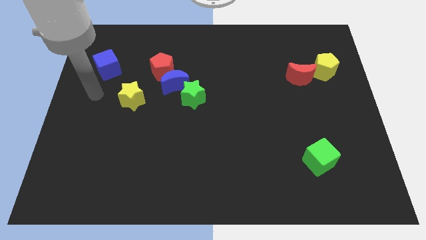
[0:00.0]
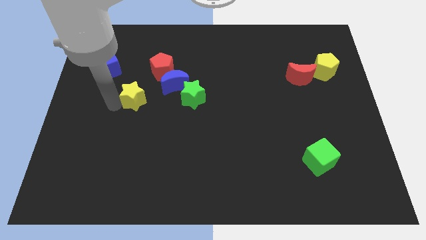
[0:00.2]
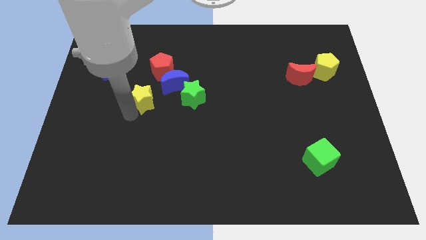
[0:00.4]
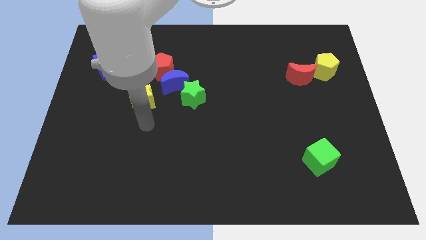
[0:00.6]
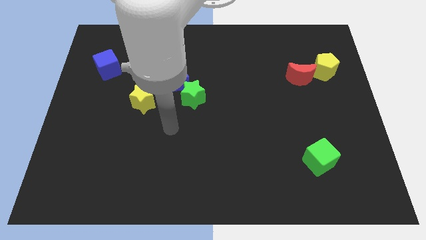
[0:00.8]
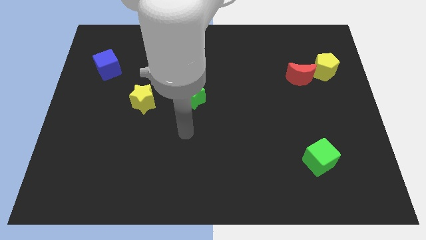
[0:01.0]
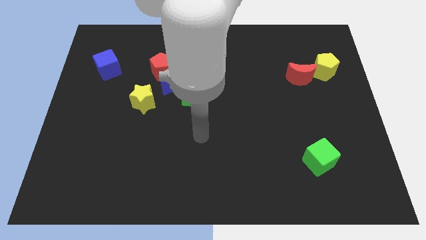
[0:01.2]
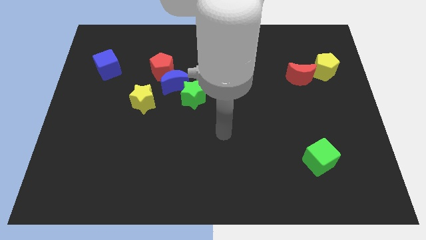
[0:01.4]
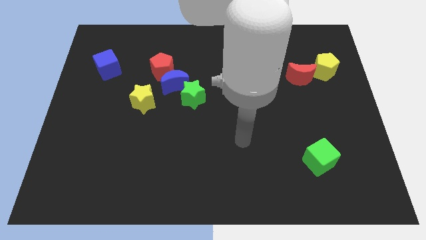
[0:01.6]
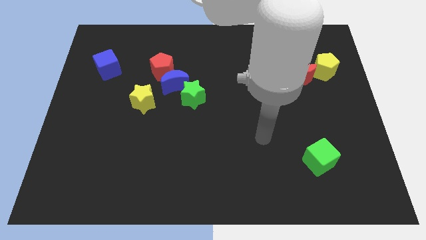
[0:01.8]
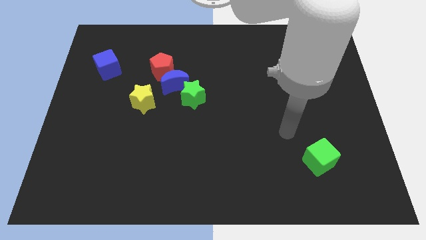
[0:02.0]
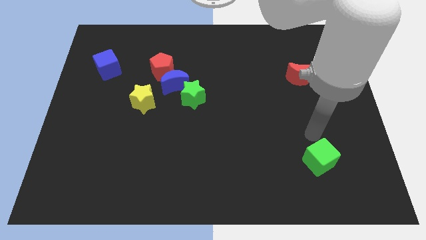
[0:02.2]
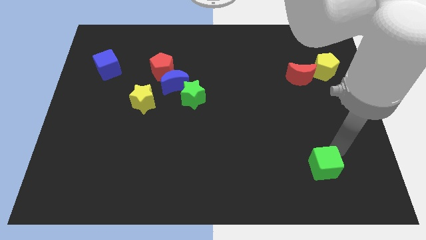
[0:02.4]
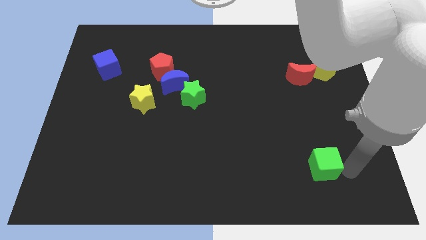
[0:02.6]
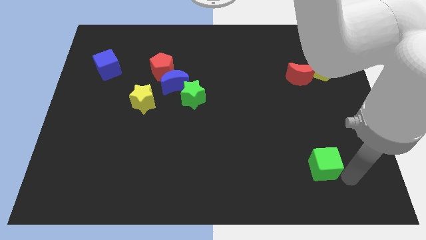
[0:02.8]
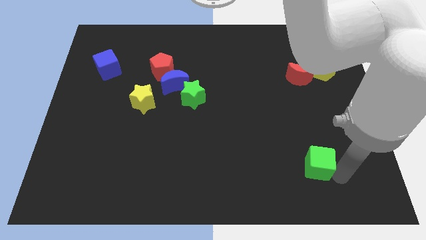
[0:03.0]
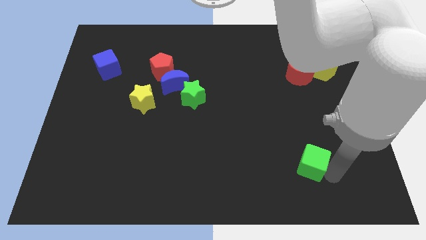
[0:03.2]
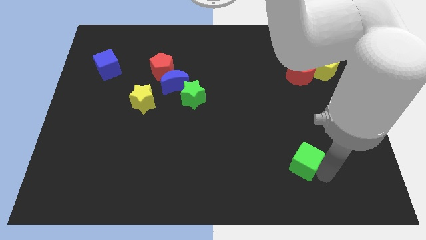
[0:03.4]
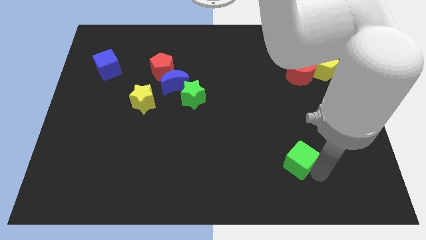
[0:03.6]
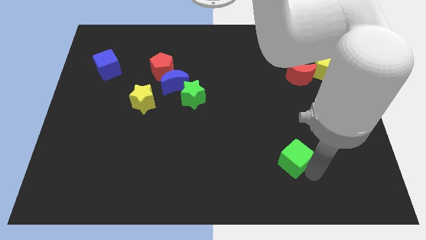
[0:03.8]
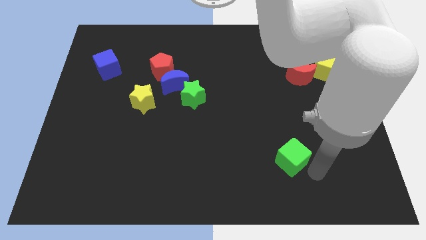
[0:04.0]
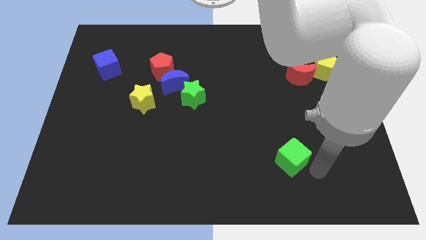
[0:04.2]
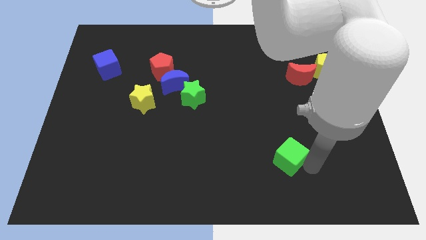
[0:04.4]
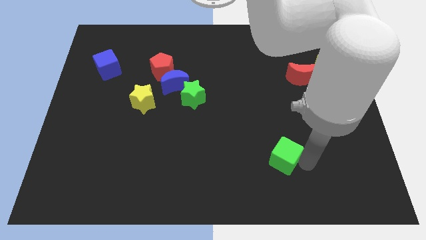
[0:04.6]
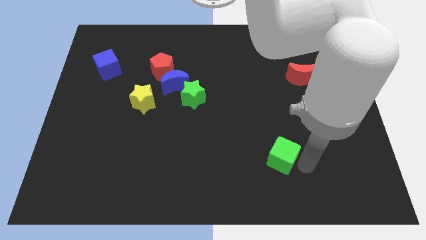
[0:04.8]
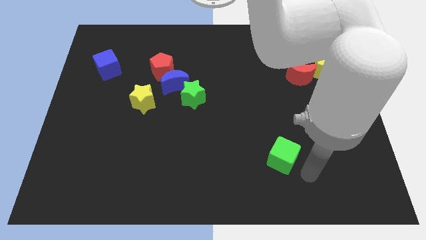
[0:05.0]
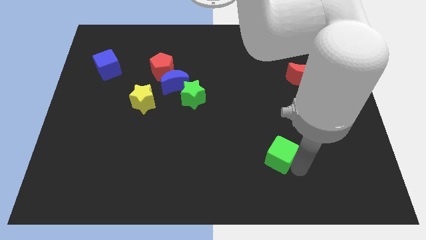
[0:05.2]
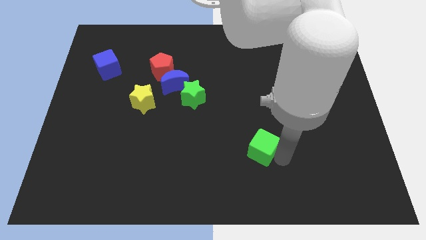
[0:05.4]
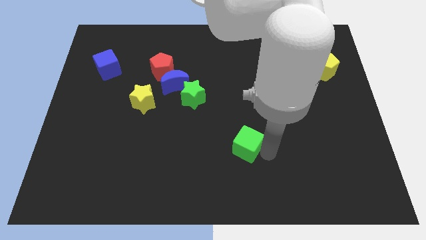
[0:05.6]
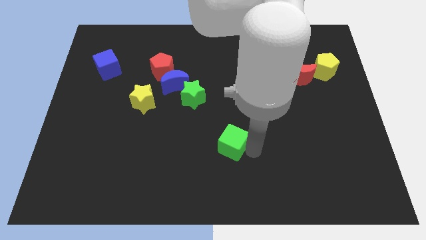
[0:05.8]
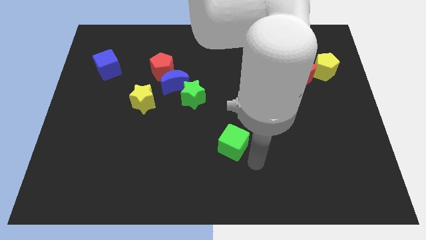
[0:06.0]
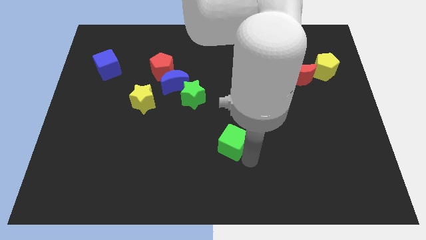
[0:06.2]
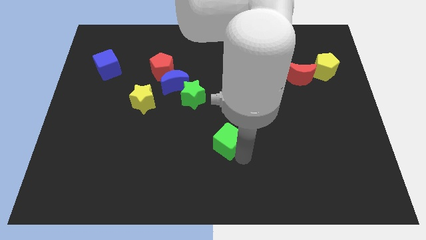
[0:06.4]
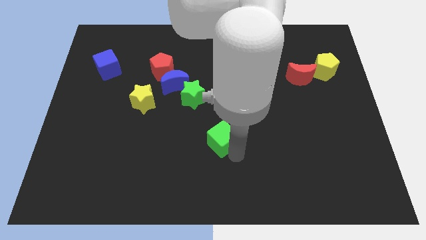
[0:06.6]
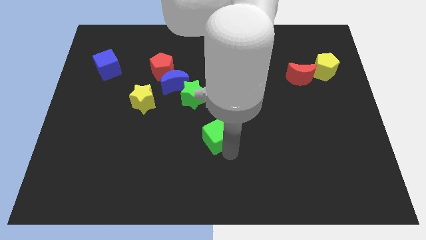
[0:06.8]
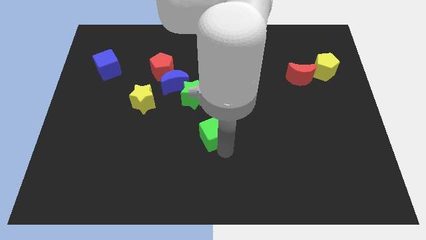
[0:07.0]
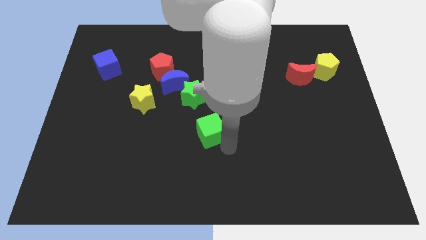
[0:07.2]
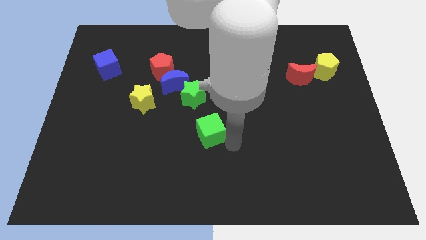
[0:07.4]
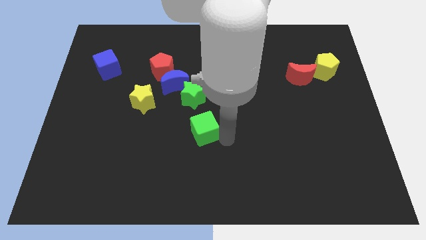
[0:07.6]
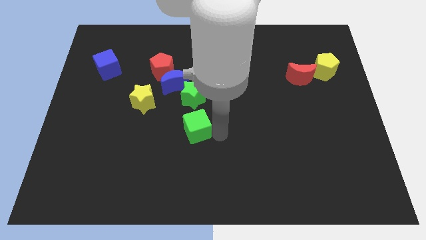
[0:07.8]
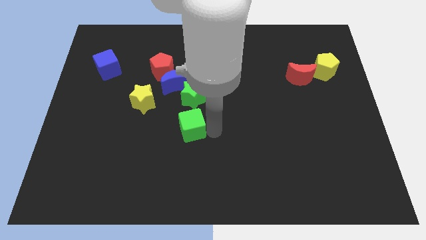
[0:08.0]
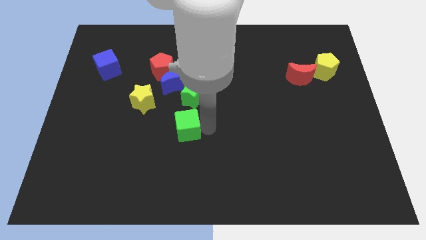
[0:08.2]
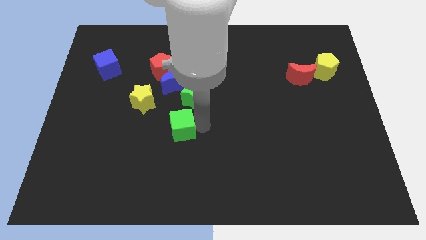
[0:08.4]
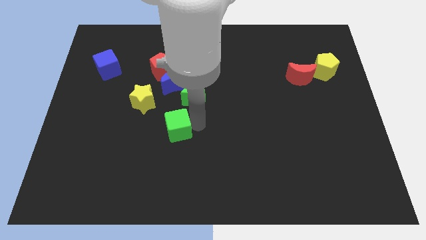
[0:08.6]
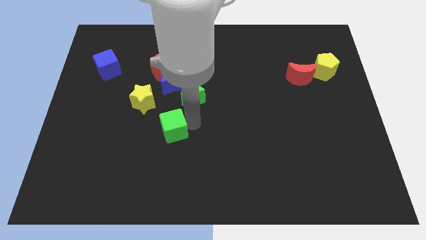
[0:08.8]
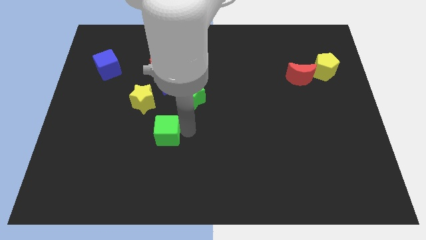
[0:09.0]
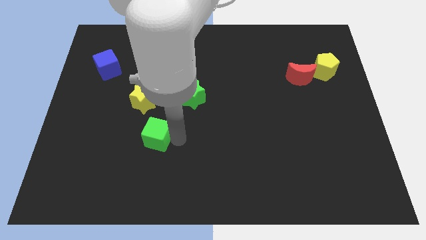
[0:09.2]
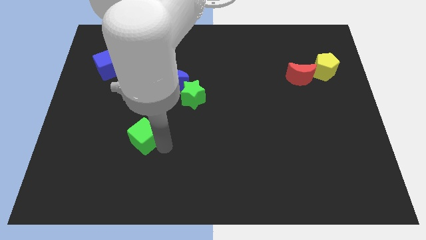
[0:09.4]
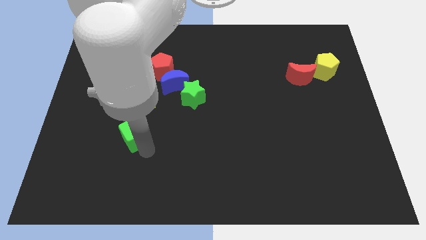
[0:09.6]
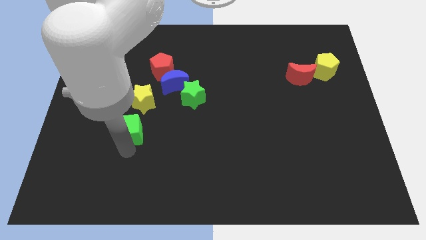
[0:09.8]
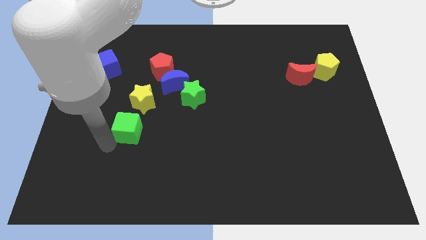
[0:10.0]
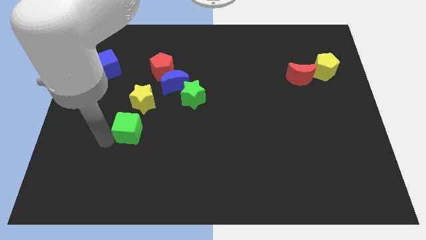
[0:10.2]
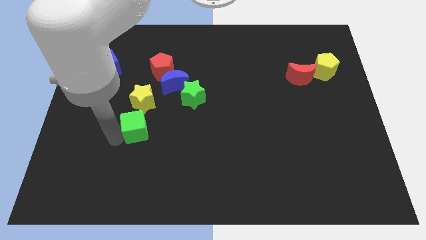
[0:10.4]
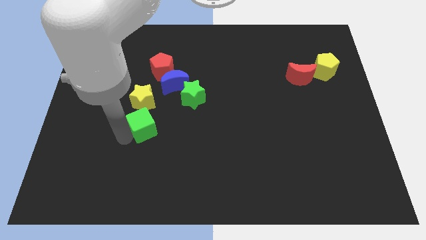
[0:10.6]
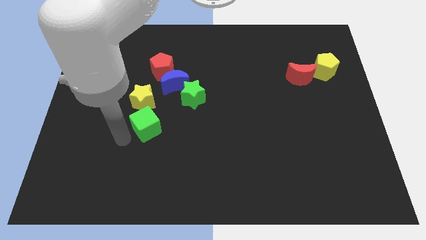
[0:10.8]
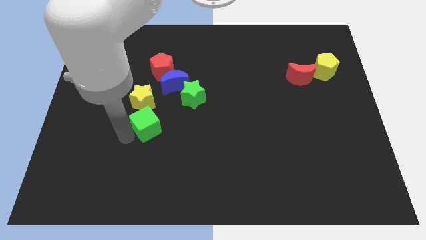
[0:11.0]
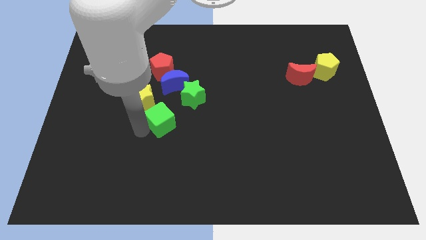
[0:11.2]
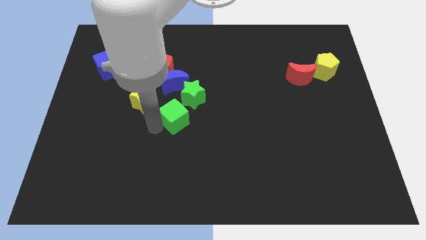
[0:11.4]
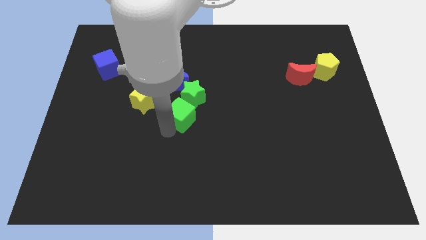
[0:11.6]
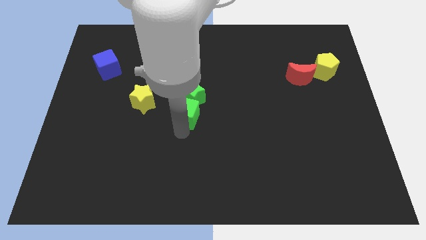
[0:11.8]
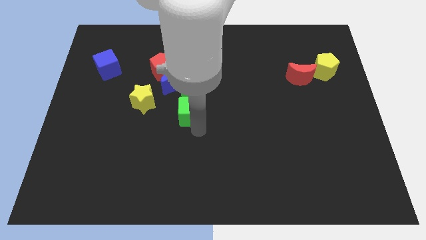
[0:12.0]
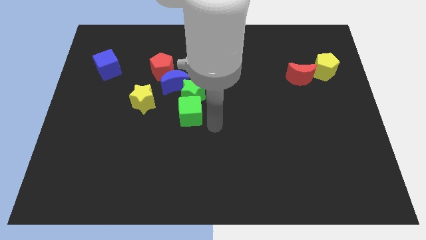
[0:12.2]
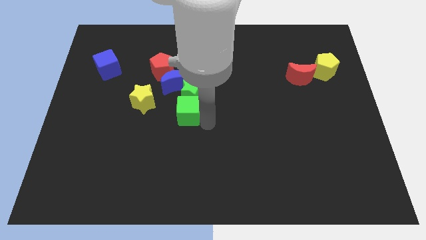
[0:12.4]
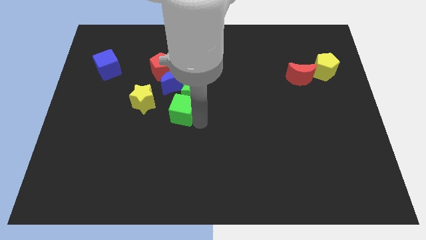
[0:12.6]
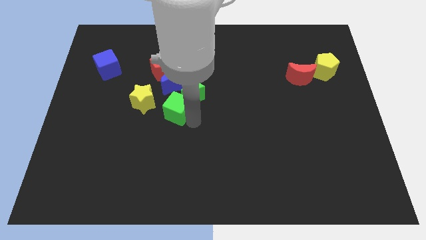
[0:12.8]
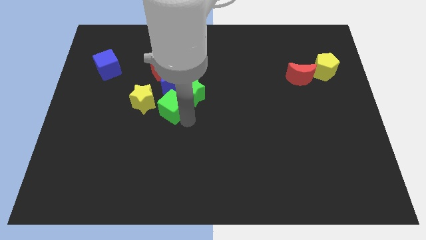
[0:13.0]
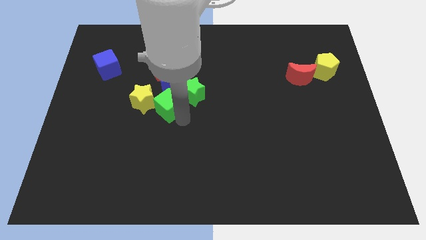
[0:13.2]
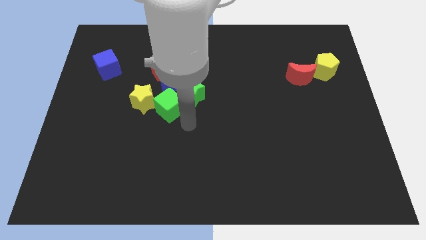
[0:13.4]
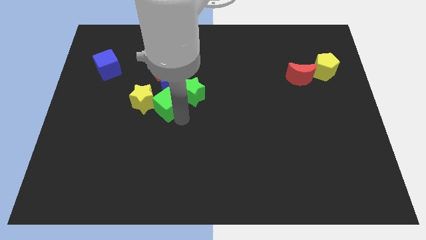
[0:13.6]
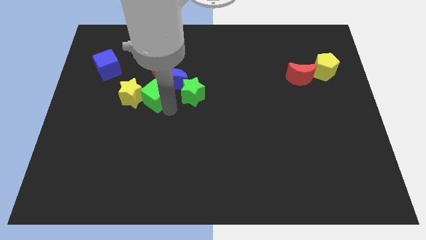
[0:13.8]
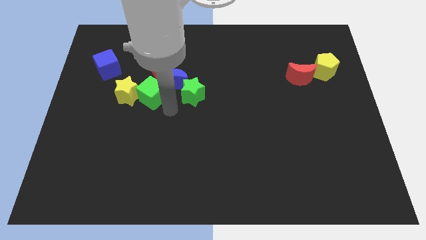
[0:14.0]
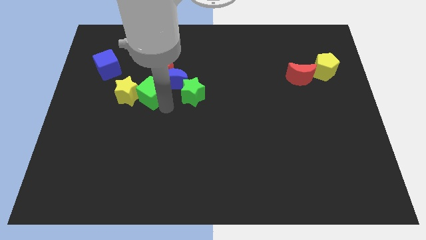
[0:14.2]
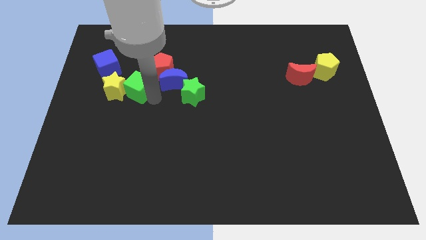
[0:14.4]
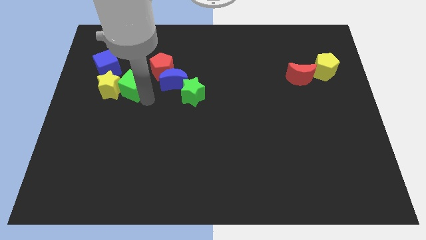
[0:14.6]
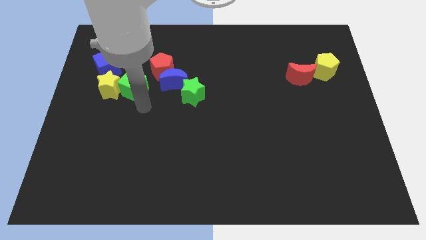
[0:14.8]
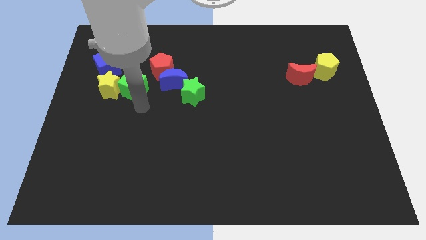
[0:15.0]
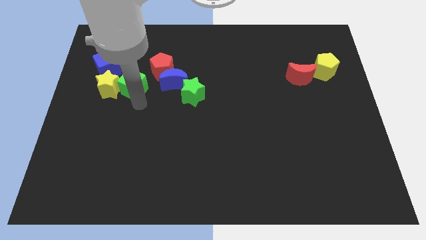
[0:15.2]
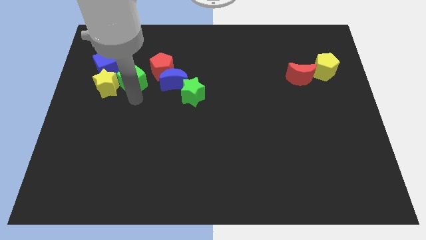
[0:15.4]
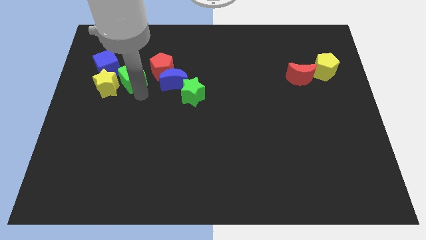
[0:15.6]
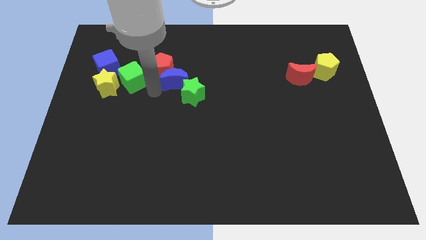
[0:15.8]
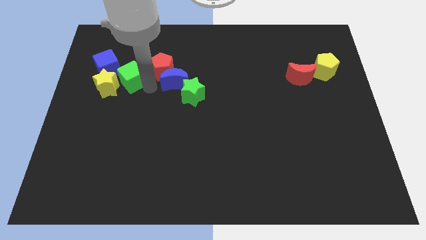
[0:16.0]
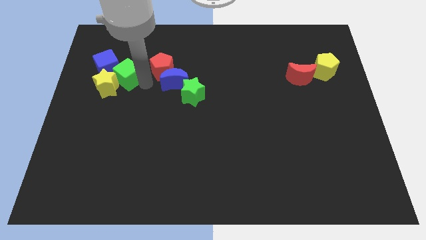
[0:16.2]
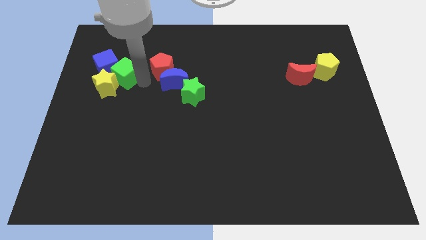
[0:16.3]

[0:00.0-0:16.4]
put the green cube next to the blue cube

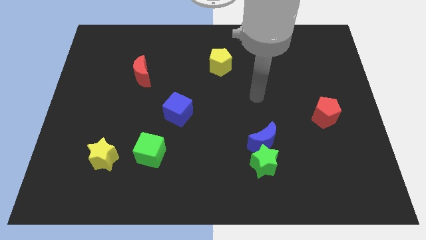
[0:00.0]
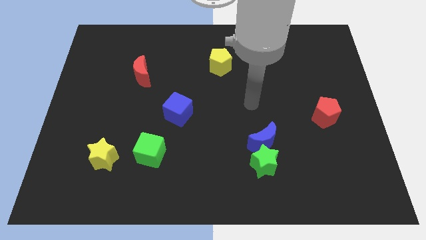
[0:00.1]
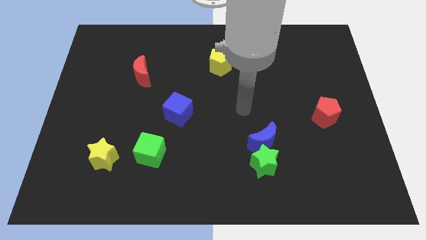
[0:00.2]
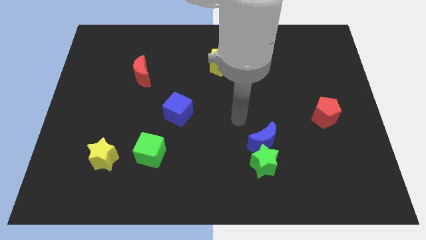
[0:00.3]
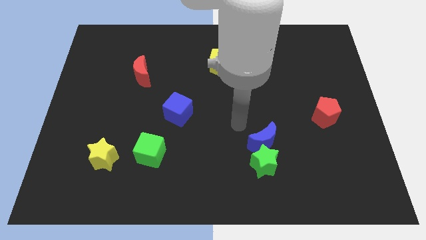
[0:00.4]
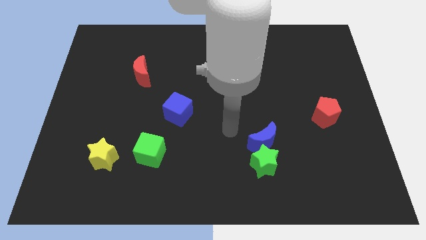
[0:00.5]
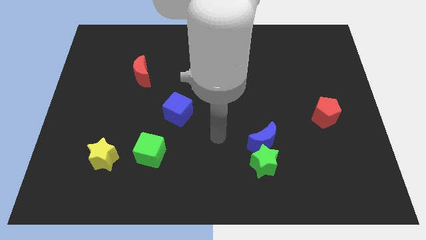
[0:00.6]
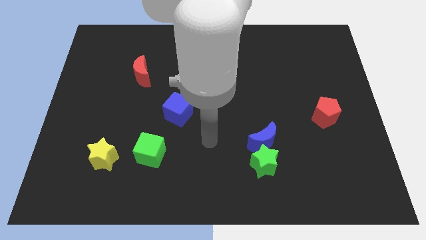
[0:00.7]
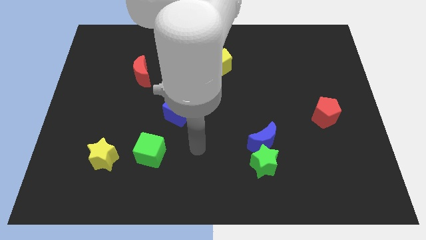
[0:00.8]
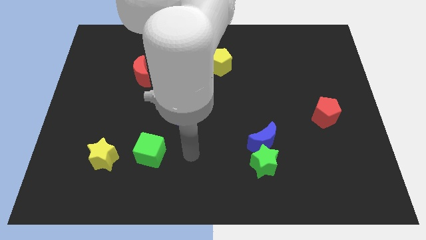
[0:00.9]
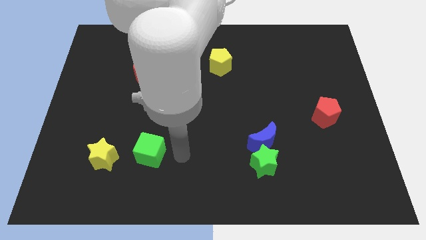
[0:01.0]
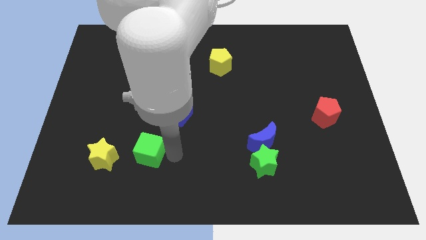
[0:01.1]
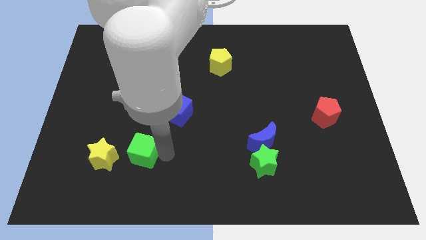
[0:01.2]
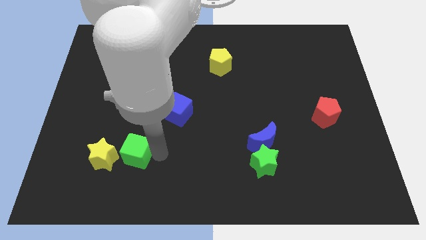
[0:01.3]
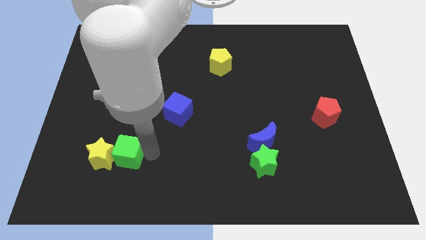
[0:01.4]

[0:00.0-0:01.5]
put the green cube to the yellow star
